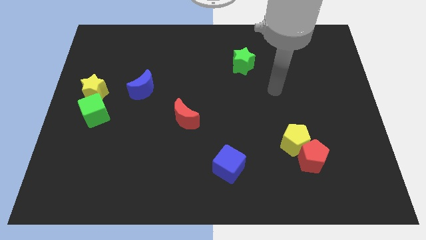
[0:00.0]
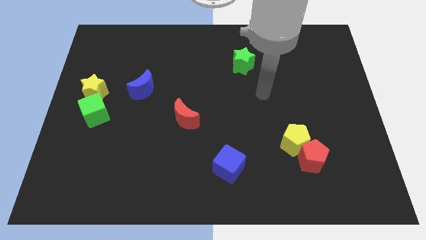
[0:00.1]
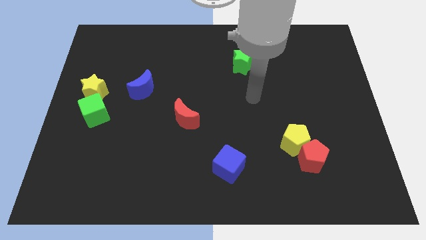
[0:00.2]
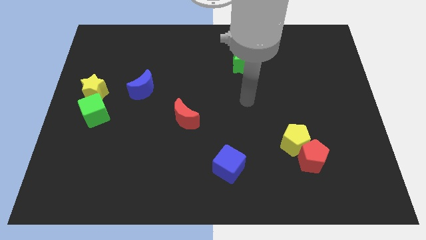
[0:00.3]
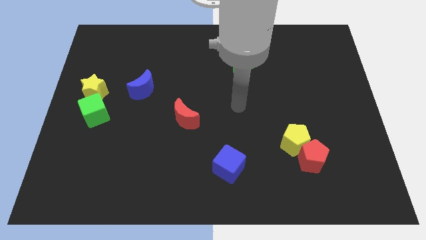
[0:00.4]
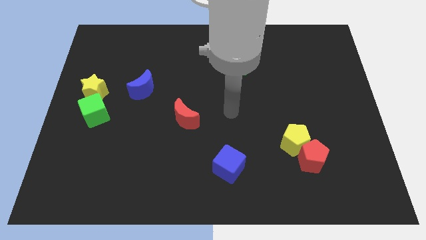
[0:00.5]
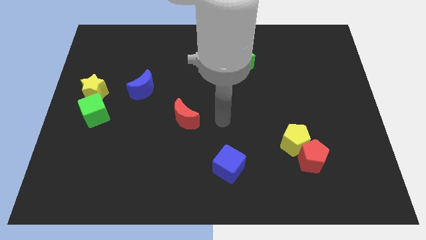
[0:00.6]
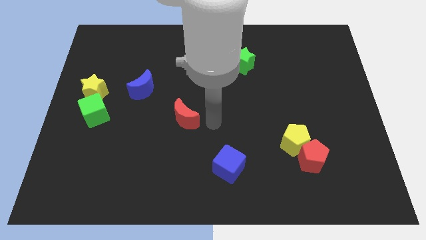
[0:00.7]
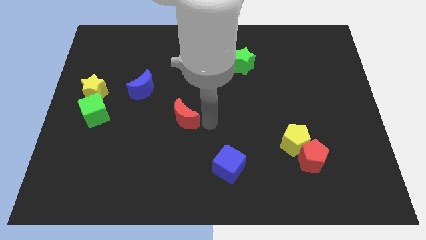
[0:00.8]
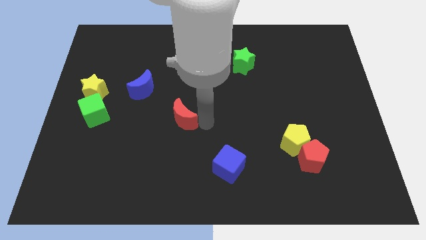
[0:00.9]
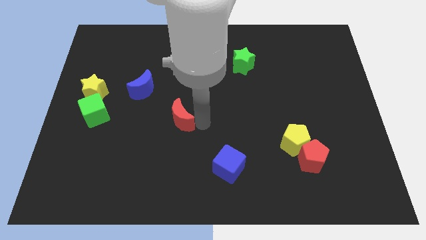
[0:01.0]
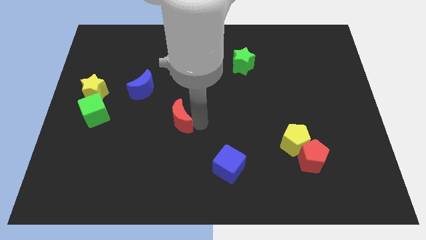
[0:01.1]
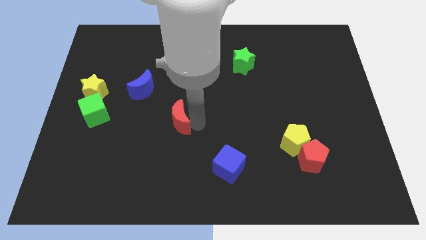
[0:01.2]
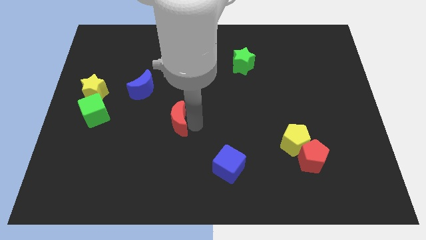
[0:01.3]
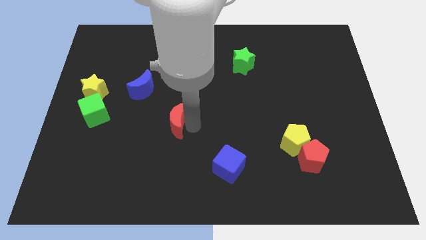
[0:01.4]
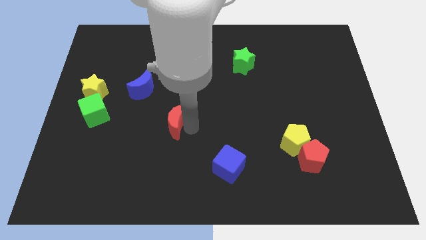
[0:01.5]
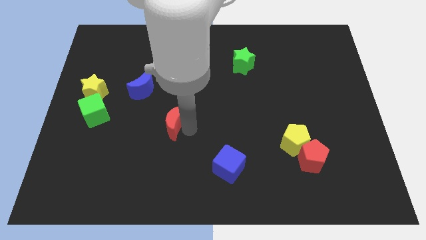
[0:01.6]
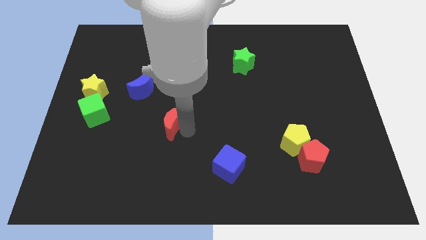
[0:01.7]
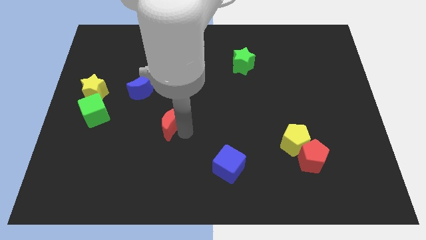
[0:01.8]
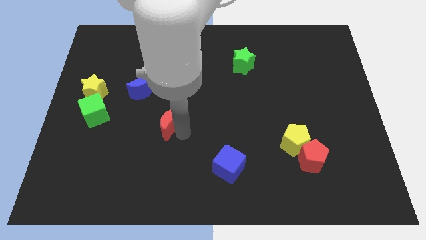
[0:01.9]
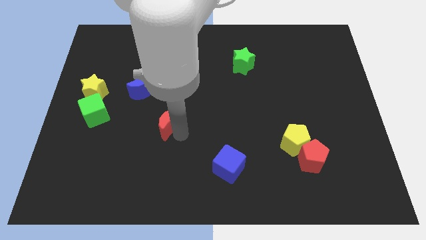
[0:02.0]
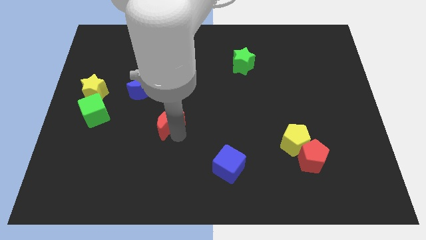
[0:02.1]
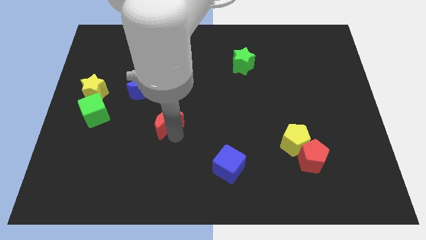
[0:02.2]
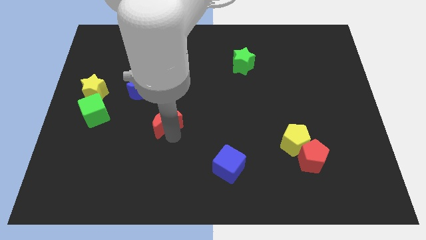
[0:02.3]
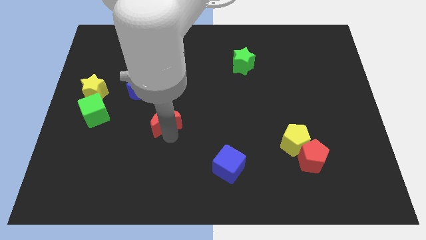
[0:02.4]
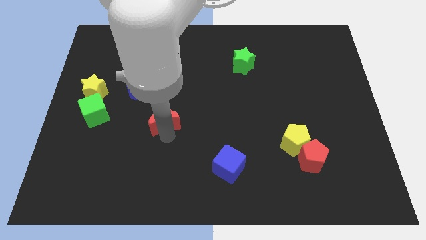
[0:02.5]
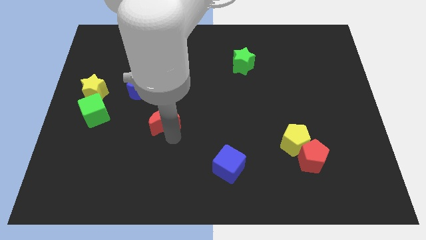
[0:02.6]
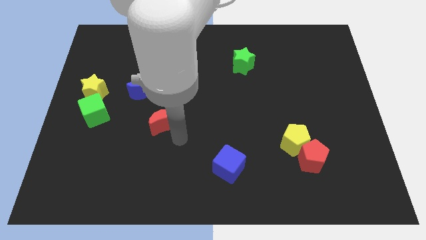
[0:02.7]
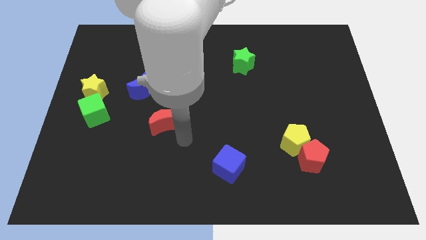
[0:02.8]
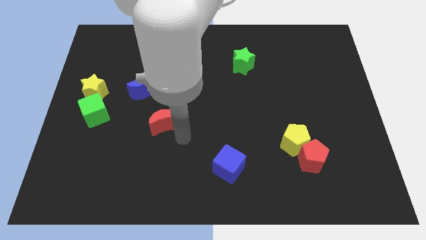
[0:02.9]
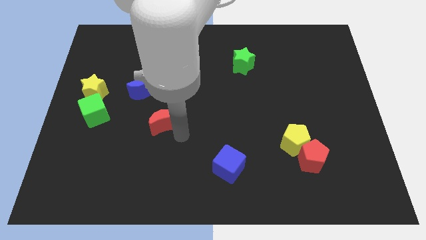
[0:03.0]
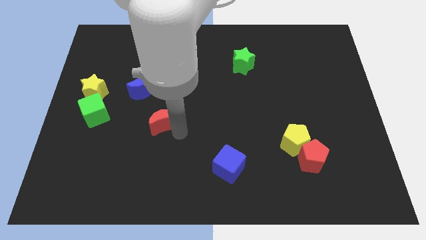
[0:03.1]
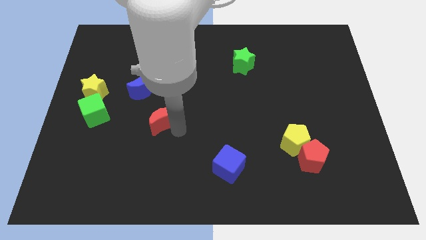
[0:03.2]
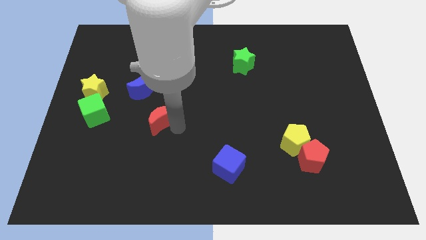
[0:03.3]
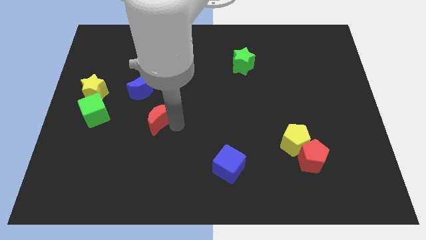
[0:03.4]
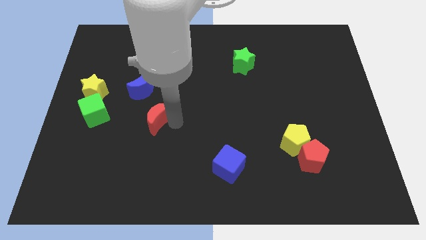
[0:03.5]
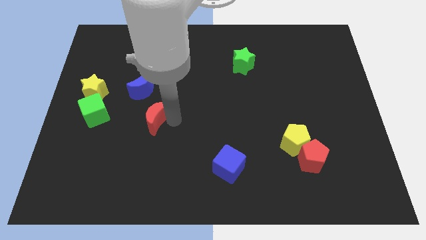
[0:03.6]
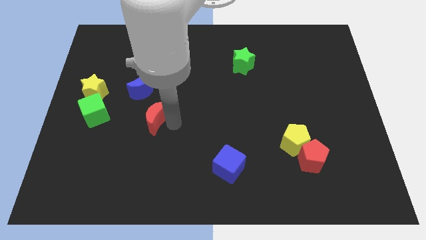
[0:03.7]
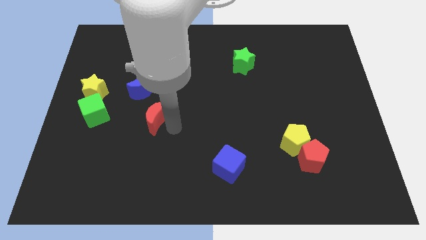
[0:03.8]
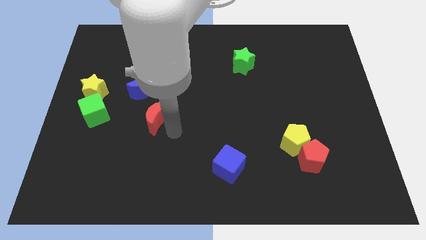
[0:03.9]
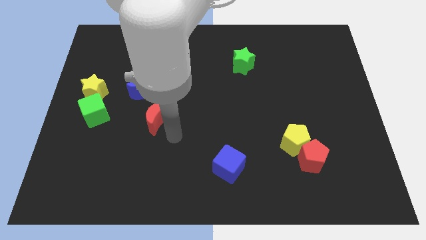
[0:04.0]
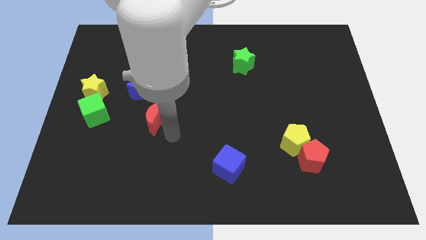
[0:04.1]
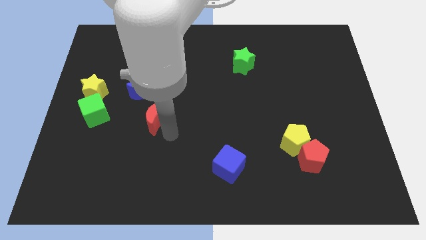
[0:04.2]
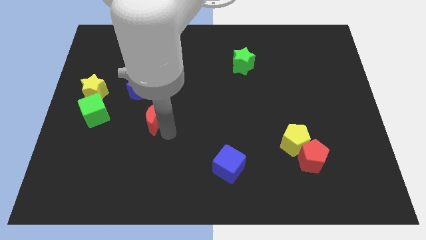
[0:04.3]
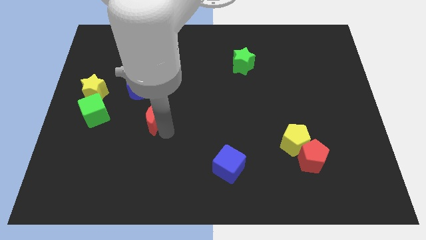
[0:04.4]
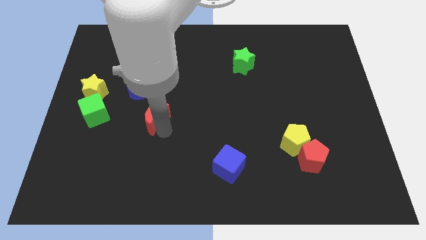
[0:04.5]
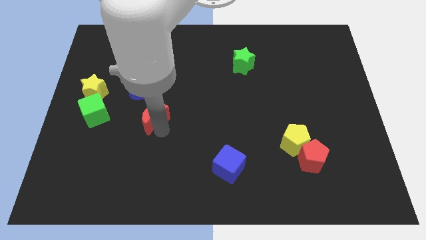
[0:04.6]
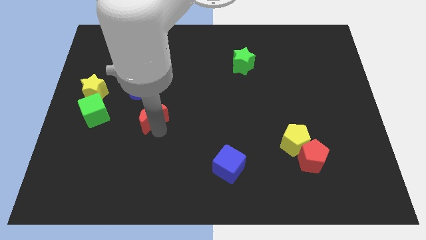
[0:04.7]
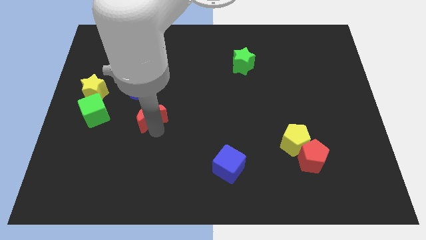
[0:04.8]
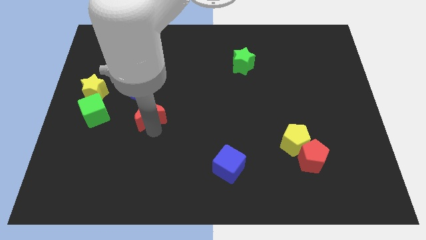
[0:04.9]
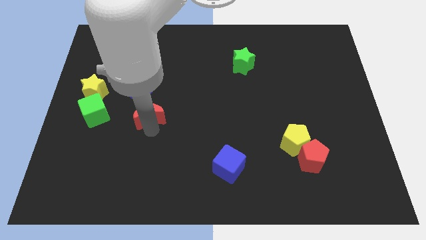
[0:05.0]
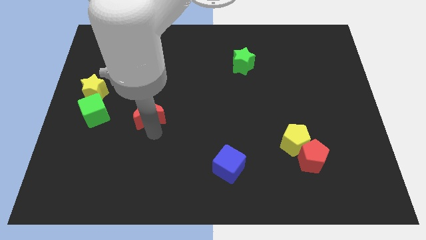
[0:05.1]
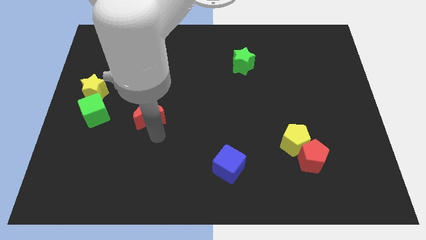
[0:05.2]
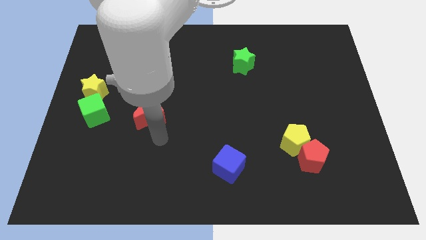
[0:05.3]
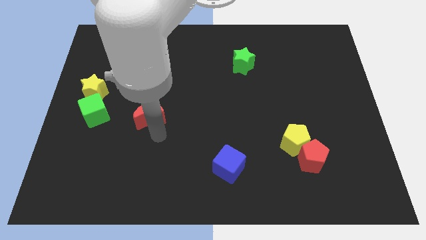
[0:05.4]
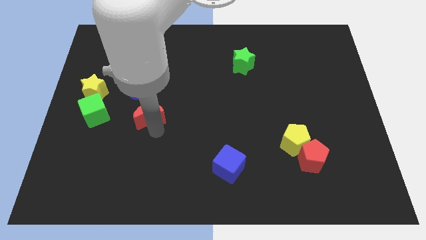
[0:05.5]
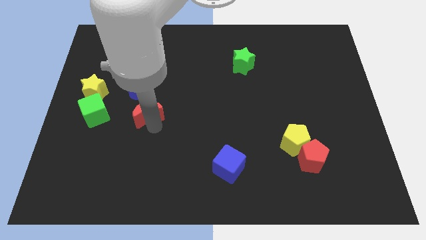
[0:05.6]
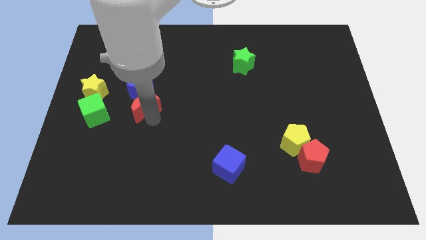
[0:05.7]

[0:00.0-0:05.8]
push the red moon up and then left a little

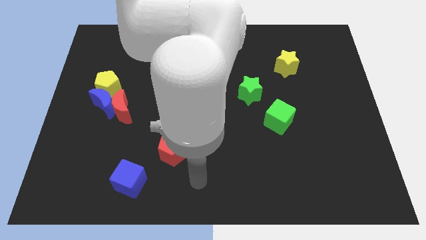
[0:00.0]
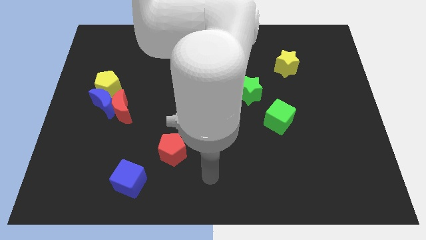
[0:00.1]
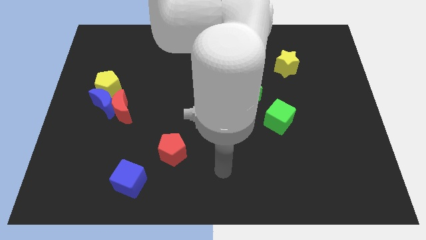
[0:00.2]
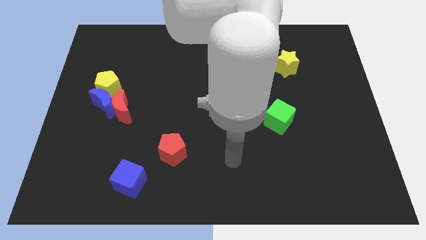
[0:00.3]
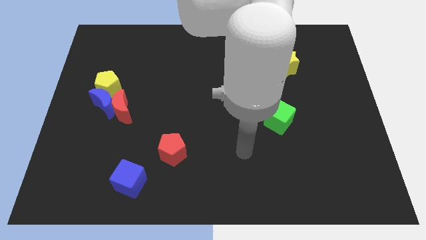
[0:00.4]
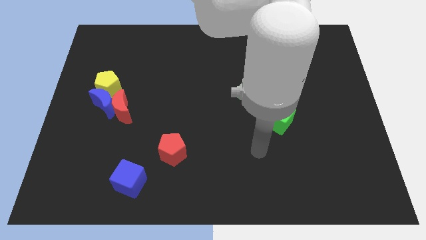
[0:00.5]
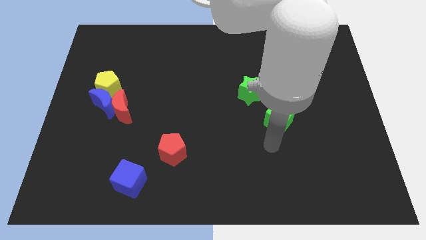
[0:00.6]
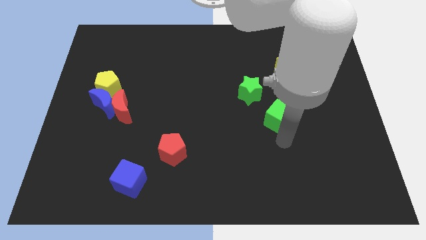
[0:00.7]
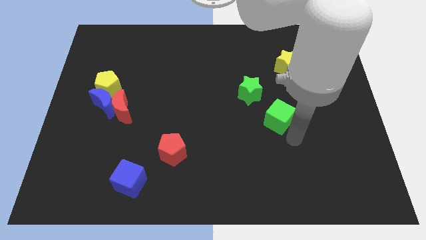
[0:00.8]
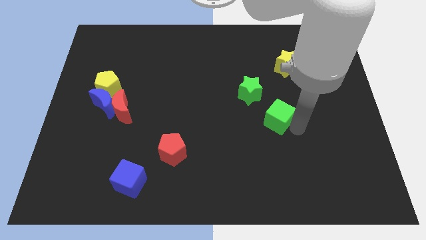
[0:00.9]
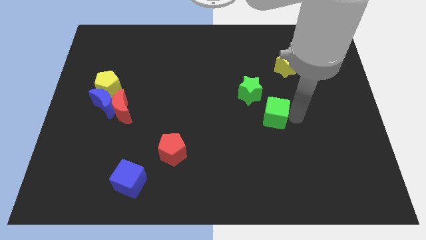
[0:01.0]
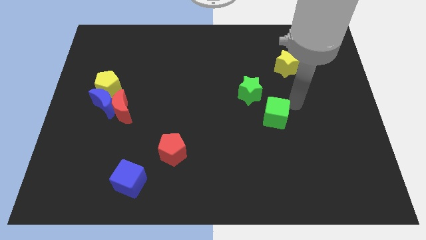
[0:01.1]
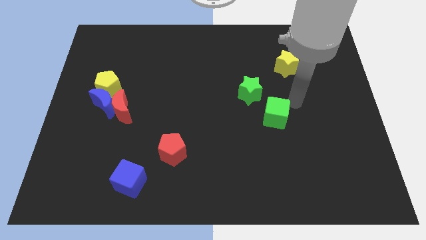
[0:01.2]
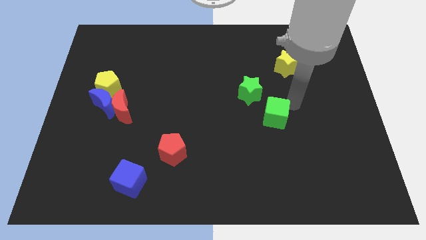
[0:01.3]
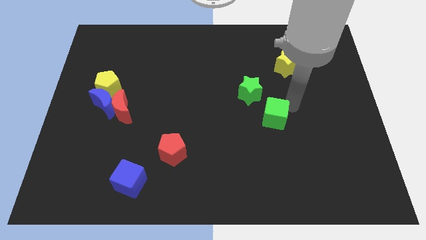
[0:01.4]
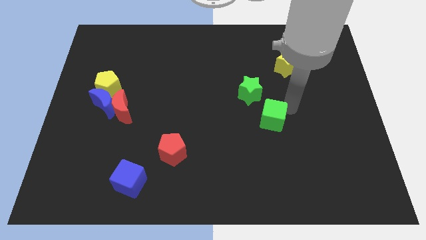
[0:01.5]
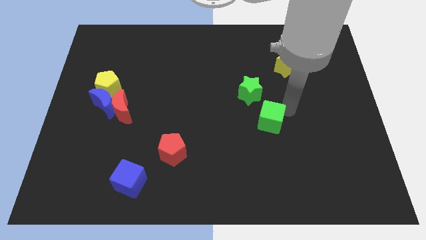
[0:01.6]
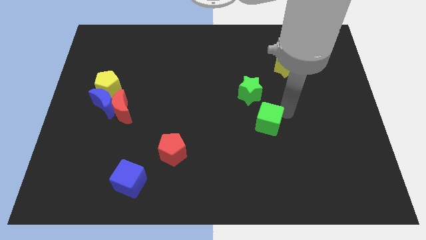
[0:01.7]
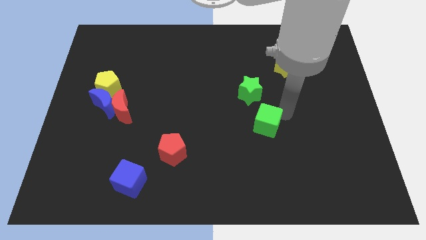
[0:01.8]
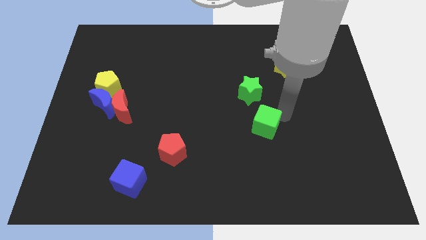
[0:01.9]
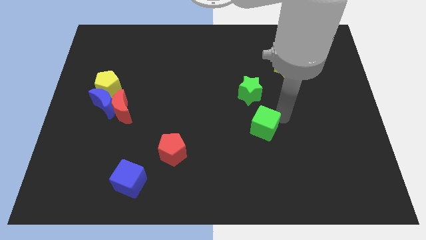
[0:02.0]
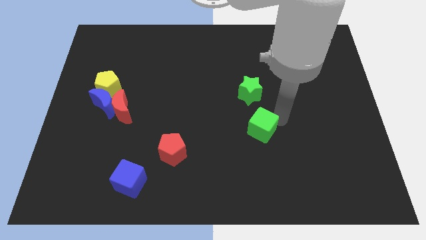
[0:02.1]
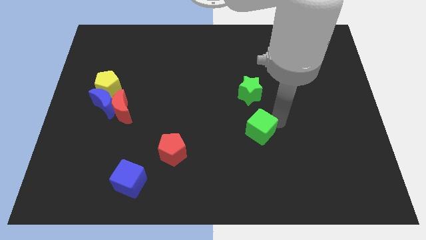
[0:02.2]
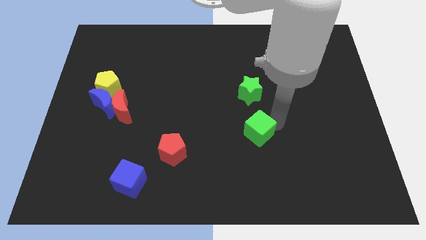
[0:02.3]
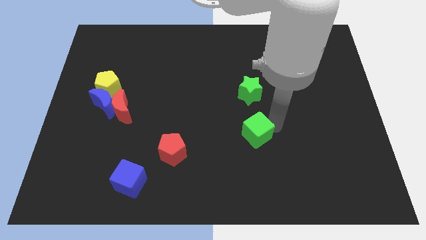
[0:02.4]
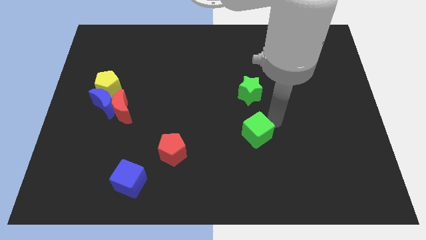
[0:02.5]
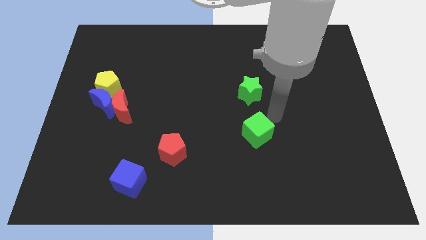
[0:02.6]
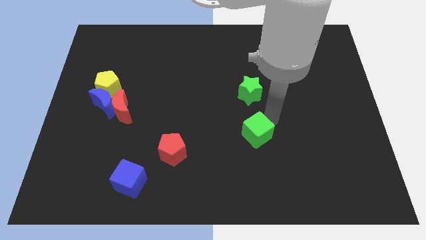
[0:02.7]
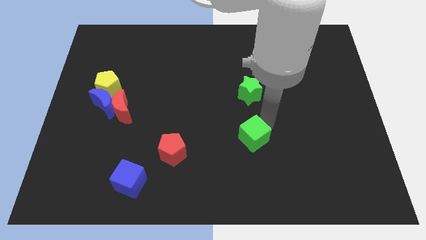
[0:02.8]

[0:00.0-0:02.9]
move the green cube slightly down and left
